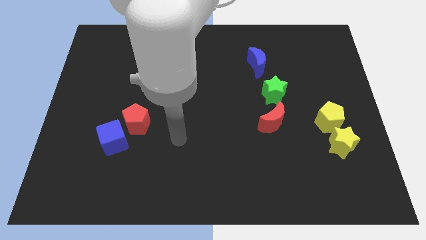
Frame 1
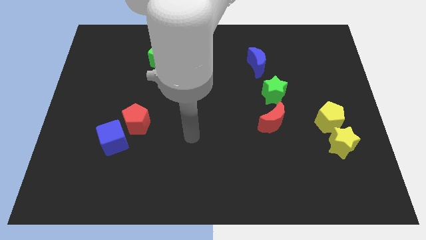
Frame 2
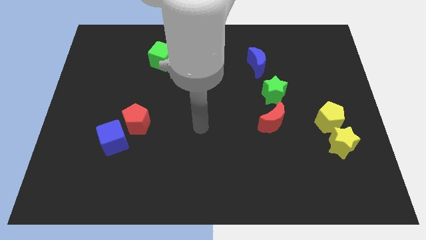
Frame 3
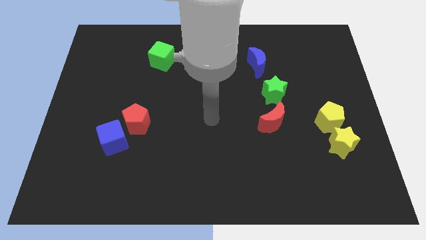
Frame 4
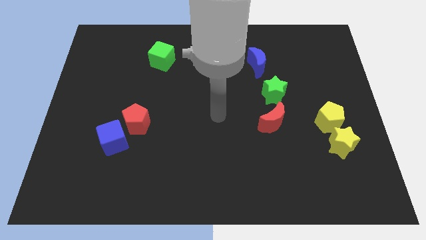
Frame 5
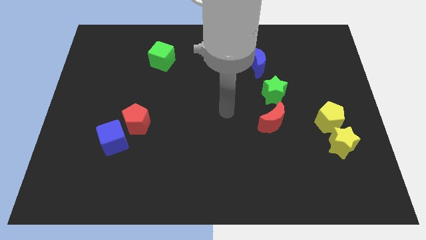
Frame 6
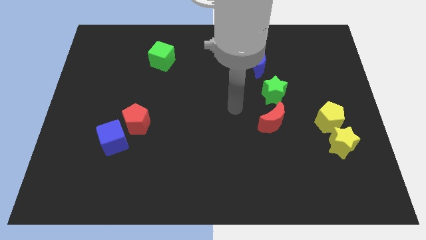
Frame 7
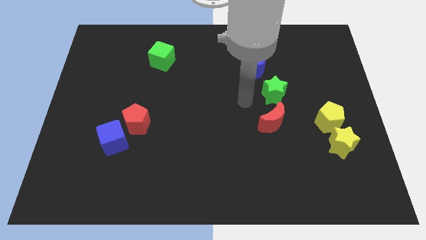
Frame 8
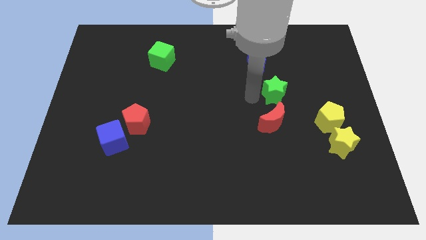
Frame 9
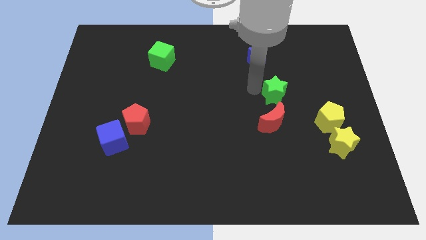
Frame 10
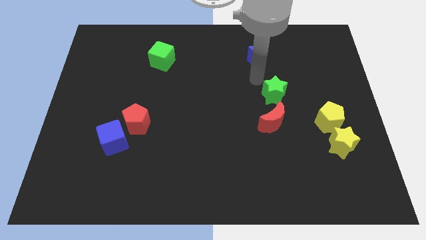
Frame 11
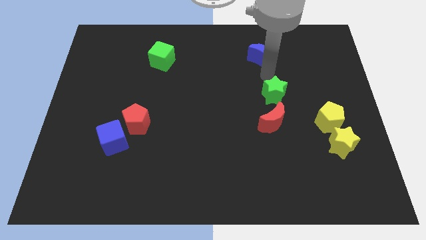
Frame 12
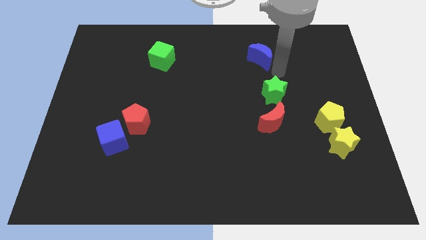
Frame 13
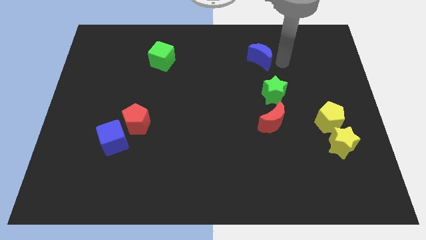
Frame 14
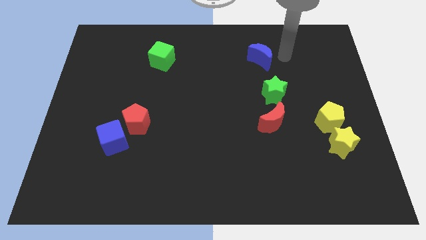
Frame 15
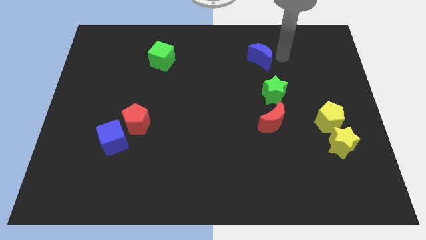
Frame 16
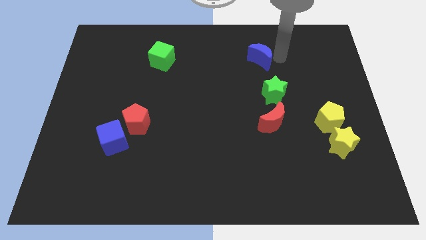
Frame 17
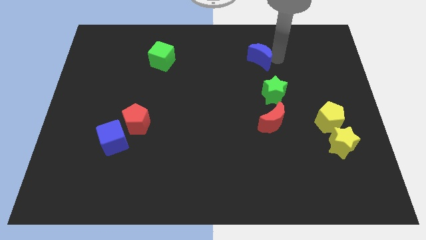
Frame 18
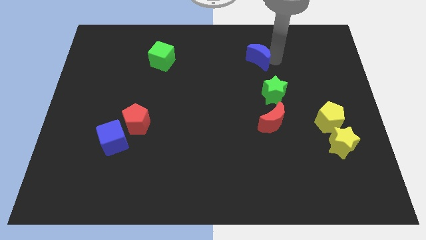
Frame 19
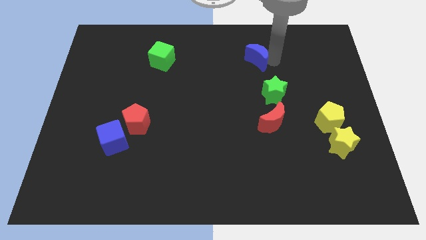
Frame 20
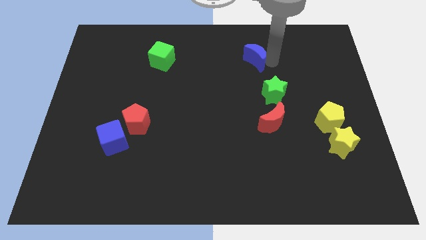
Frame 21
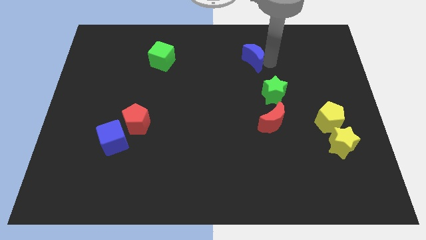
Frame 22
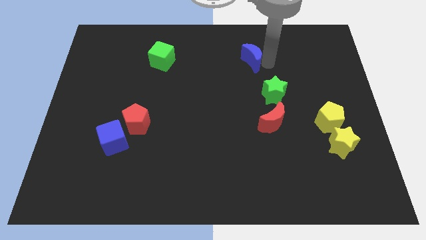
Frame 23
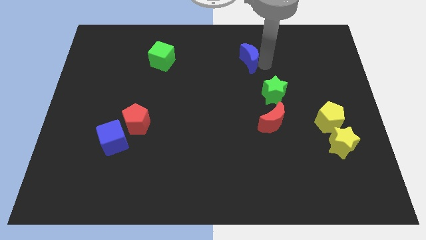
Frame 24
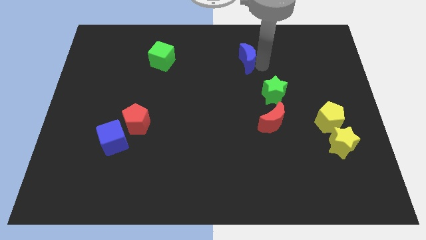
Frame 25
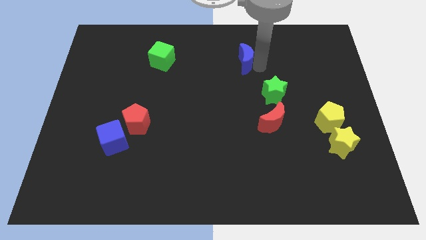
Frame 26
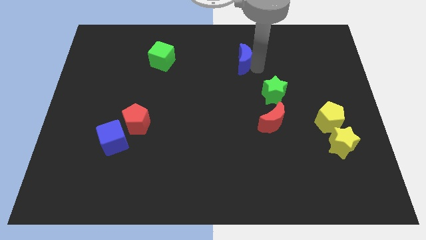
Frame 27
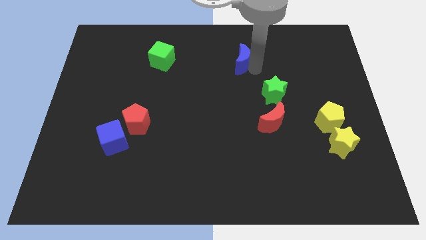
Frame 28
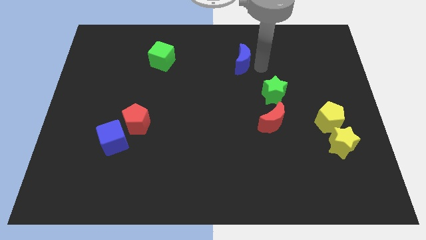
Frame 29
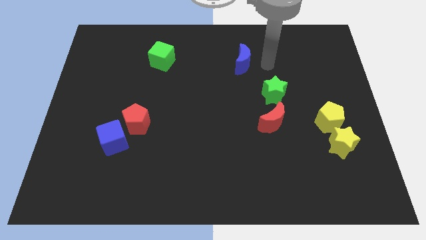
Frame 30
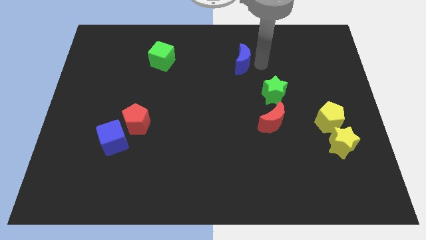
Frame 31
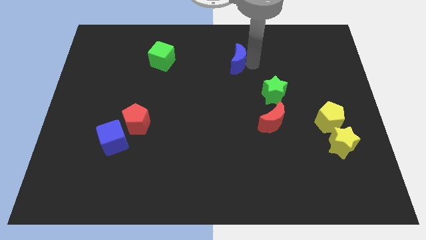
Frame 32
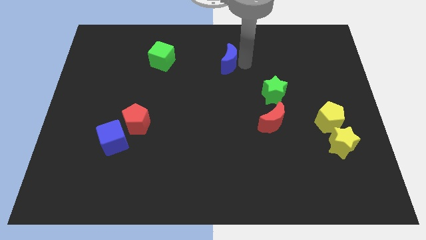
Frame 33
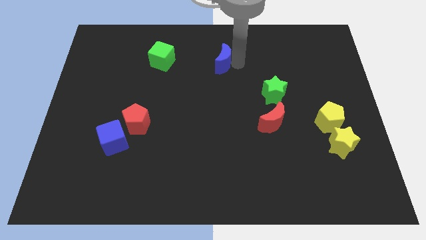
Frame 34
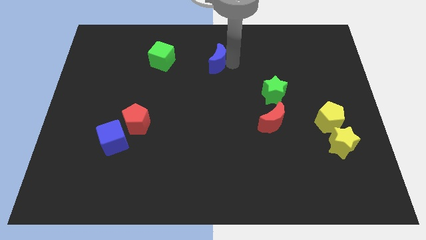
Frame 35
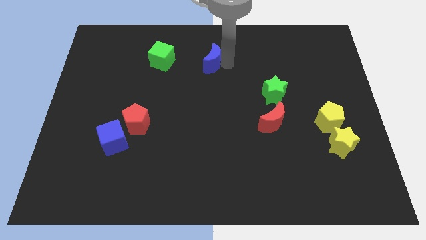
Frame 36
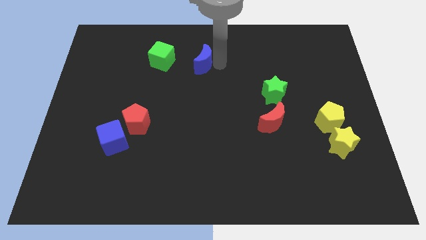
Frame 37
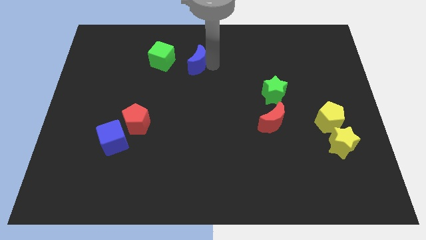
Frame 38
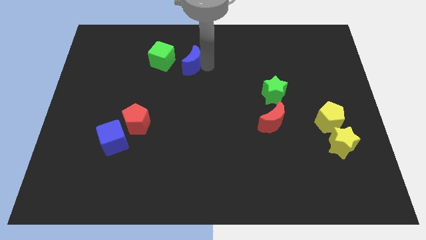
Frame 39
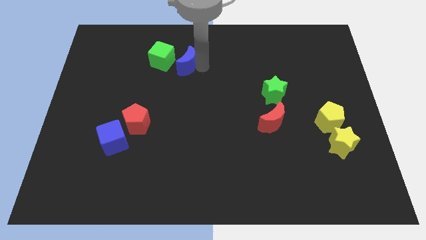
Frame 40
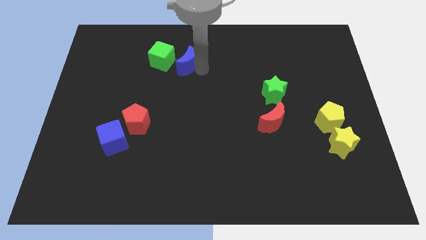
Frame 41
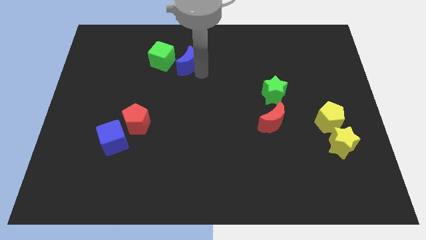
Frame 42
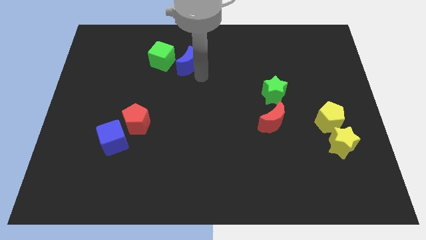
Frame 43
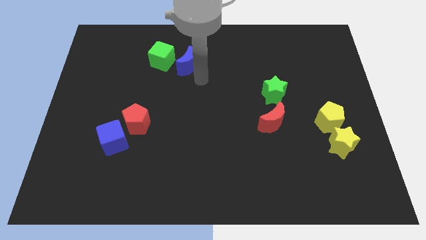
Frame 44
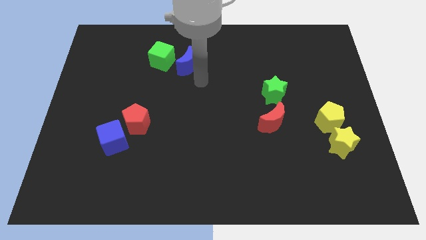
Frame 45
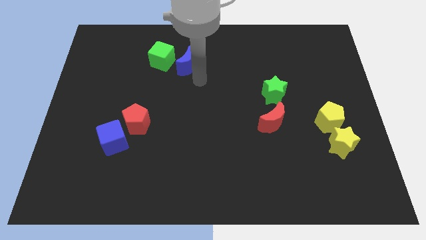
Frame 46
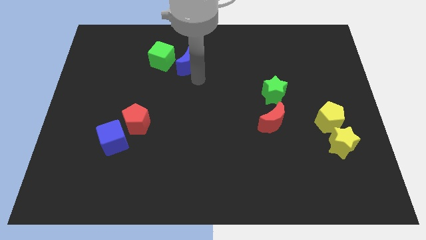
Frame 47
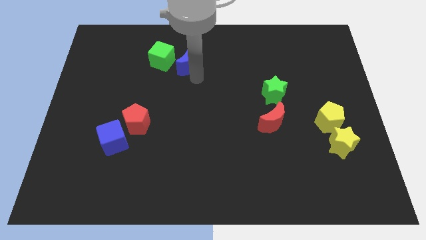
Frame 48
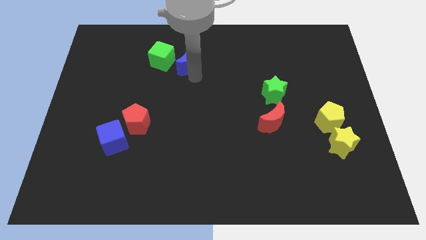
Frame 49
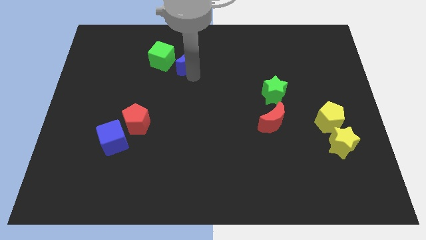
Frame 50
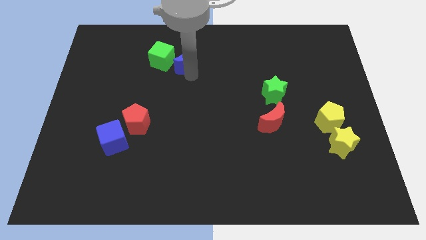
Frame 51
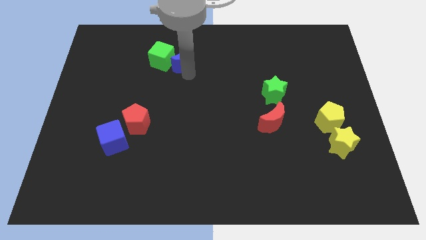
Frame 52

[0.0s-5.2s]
push the blue moon towards the green cube

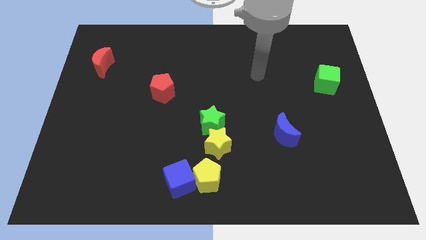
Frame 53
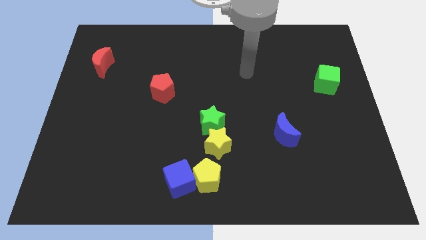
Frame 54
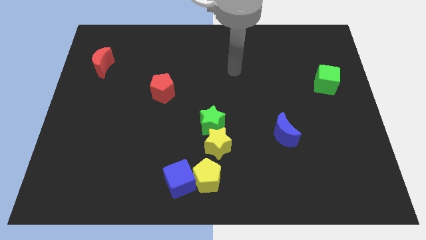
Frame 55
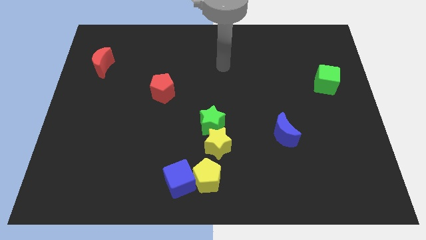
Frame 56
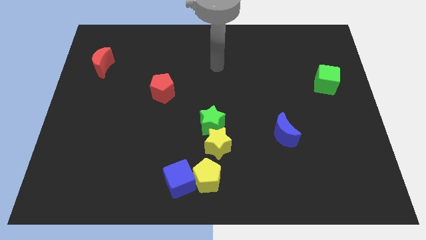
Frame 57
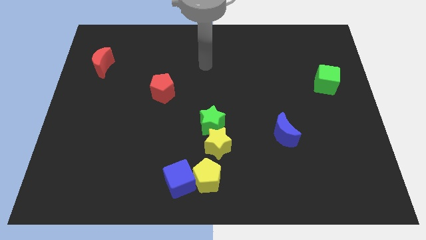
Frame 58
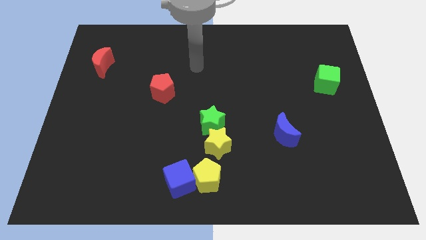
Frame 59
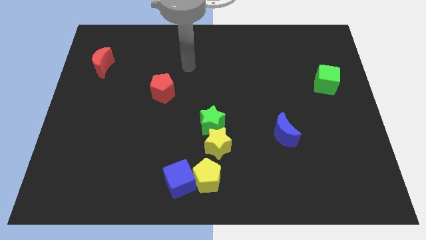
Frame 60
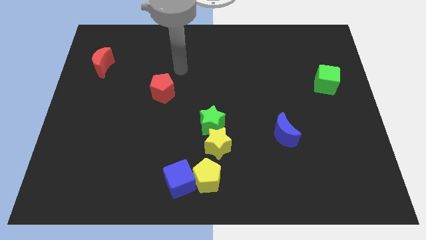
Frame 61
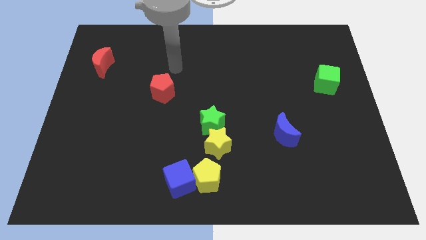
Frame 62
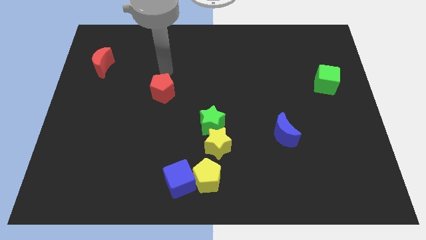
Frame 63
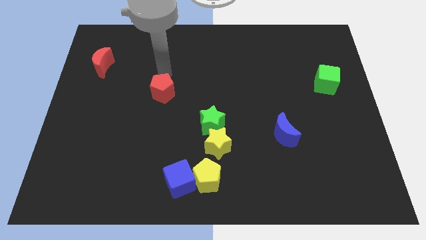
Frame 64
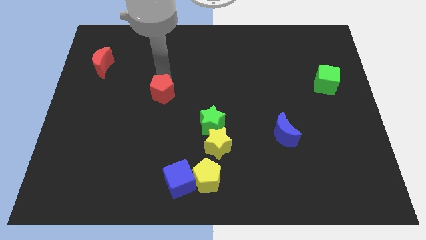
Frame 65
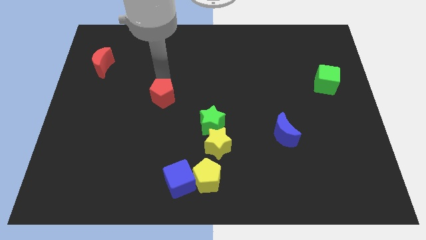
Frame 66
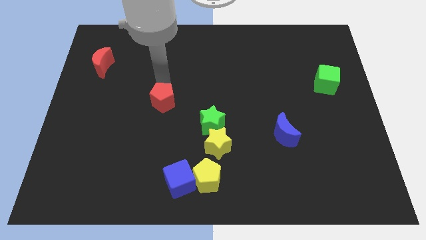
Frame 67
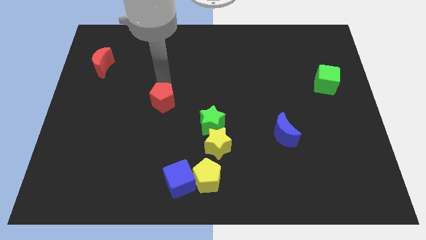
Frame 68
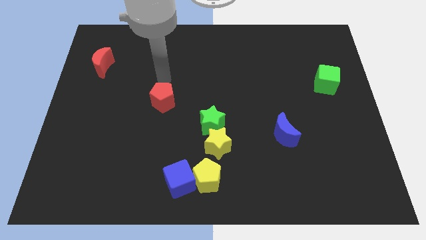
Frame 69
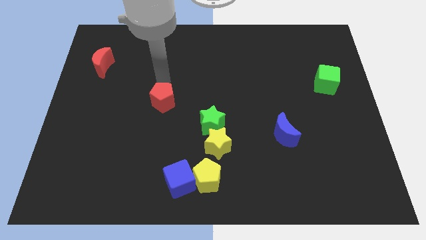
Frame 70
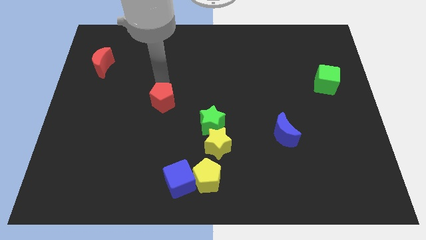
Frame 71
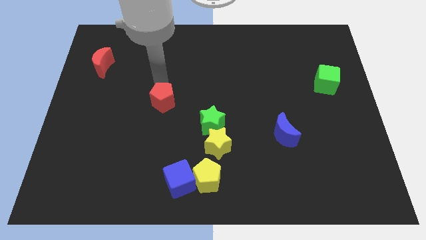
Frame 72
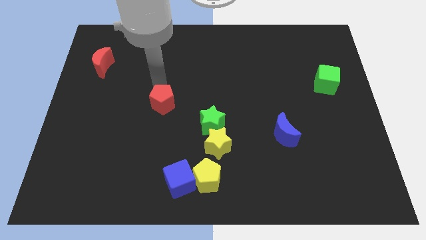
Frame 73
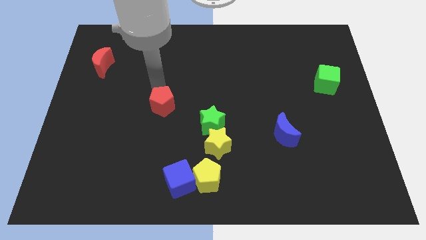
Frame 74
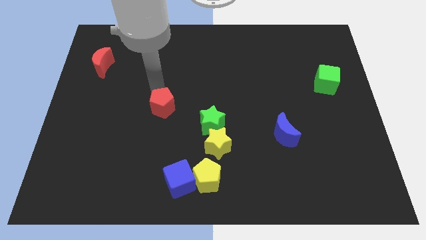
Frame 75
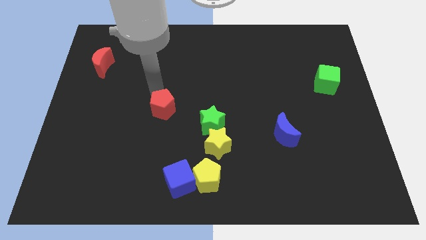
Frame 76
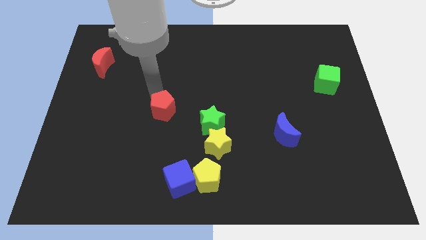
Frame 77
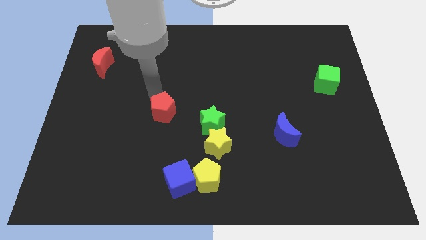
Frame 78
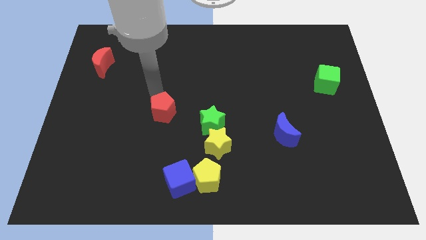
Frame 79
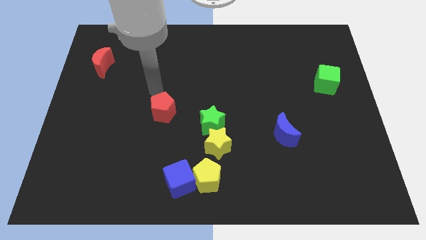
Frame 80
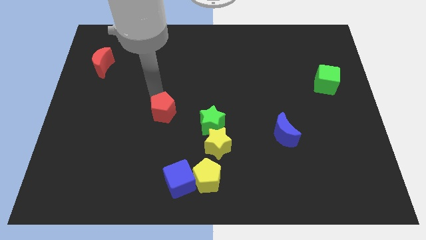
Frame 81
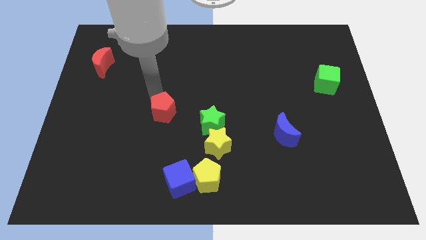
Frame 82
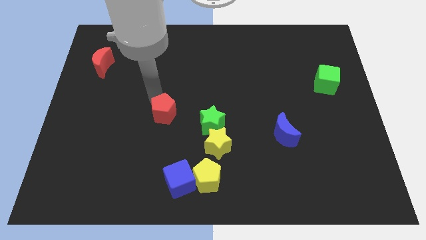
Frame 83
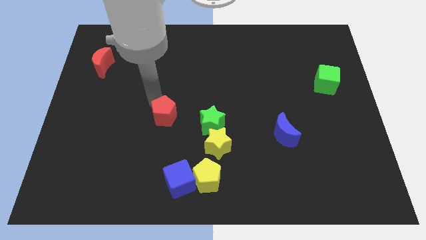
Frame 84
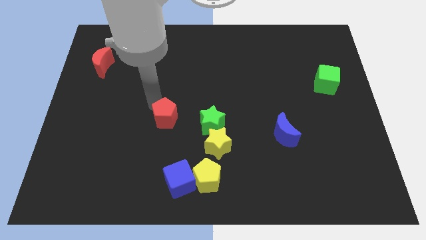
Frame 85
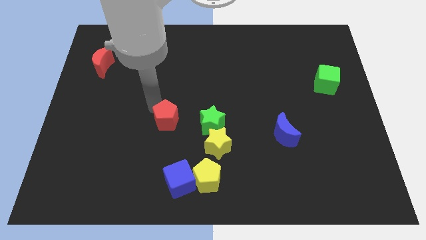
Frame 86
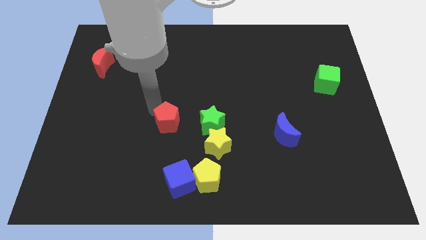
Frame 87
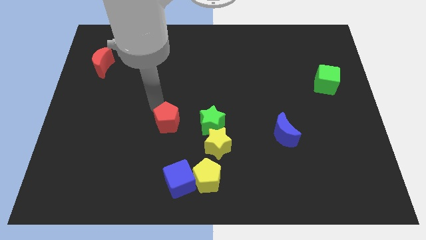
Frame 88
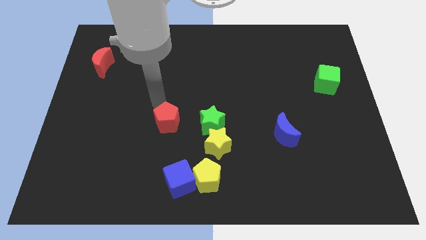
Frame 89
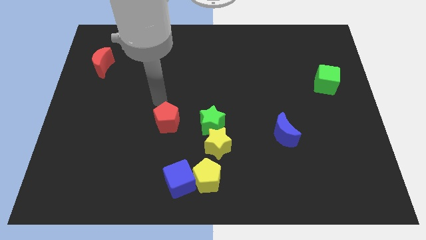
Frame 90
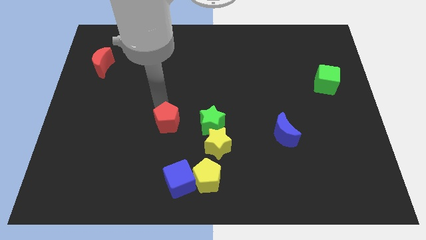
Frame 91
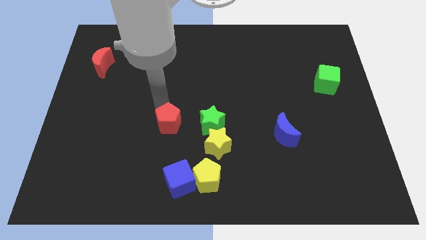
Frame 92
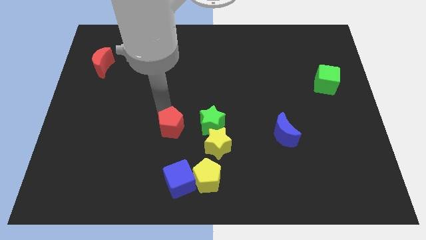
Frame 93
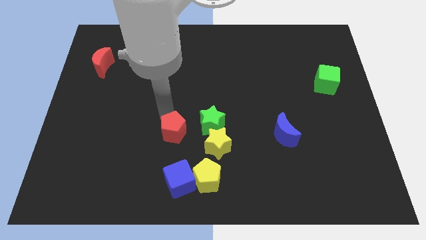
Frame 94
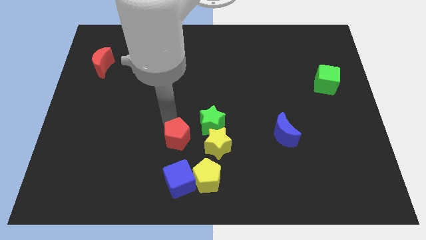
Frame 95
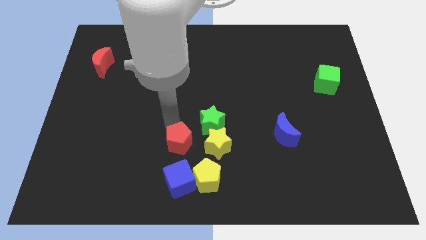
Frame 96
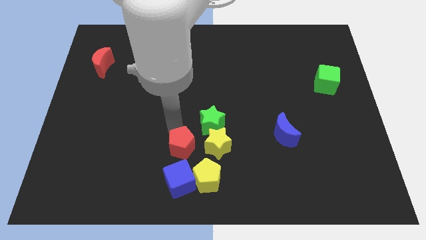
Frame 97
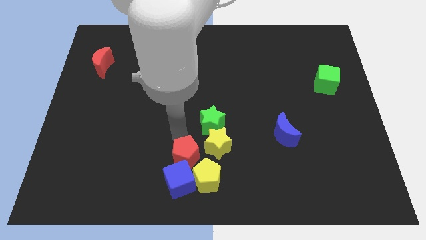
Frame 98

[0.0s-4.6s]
slide the red pentagon close to the blue cube
